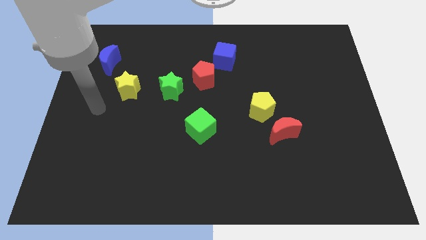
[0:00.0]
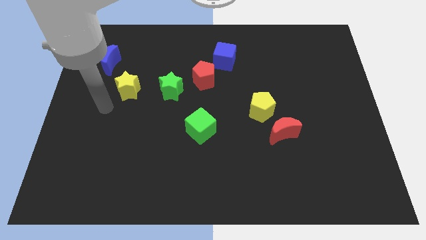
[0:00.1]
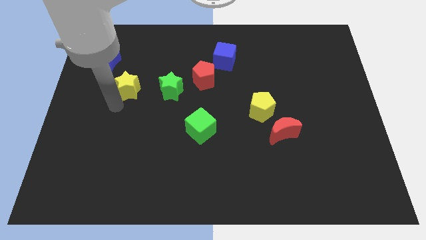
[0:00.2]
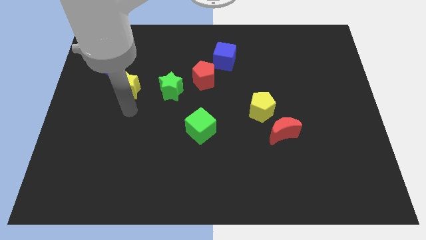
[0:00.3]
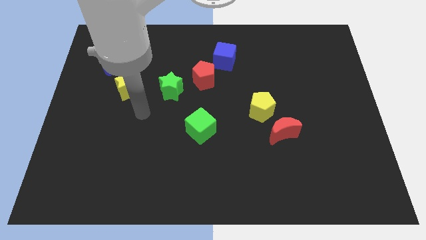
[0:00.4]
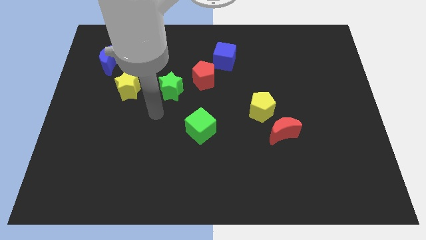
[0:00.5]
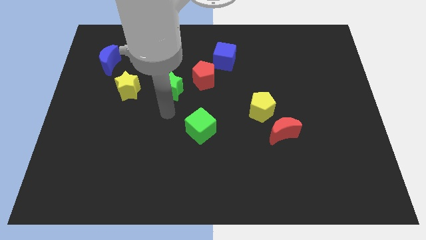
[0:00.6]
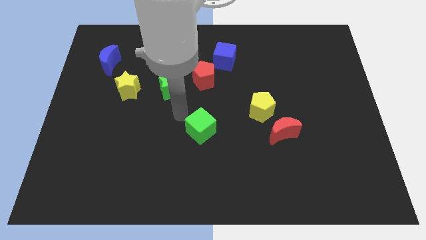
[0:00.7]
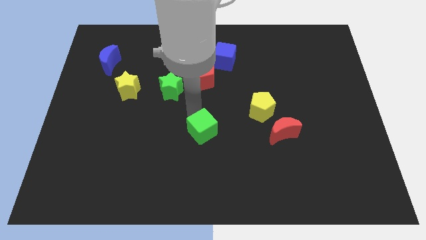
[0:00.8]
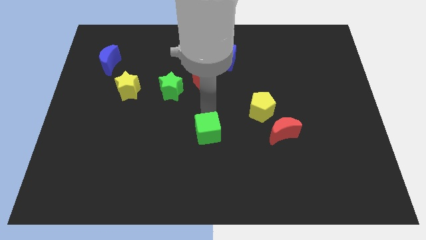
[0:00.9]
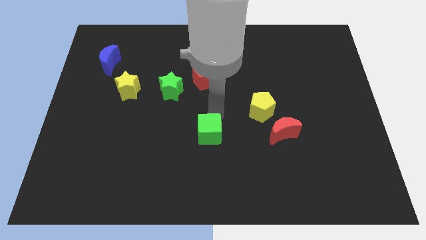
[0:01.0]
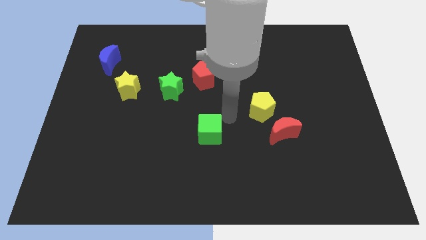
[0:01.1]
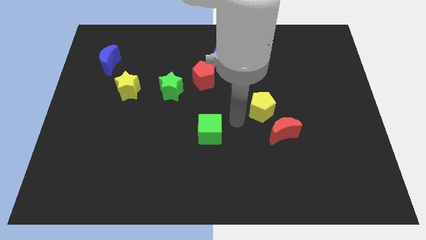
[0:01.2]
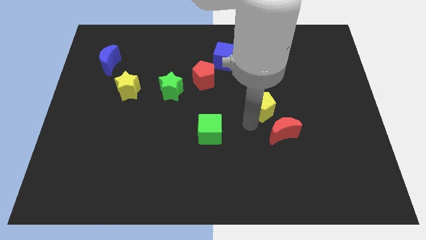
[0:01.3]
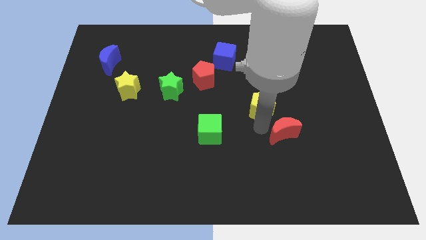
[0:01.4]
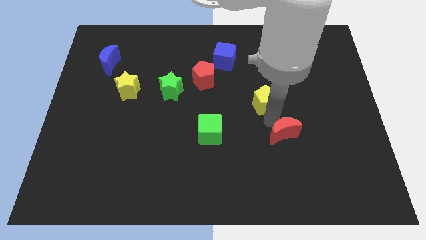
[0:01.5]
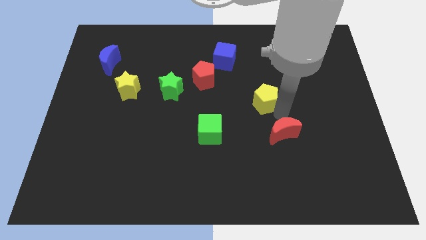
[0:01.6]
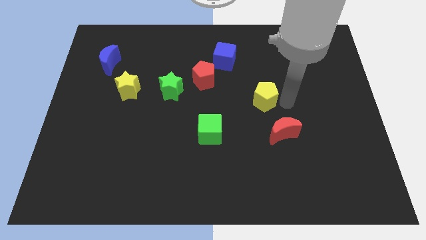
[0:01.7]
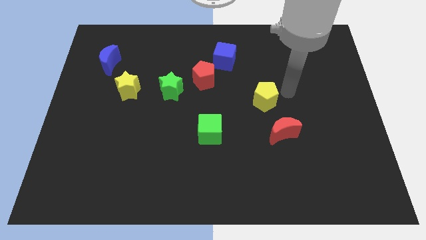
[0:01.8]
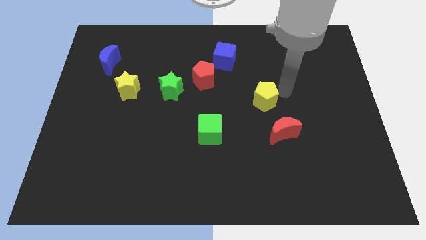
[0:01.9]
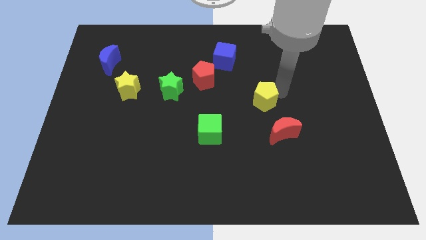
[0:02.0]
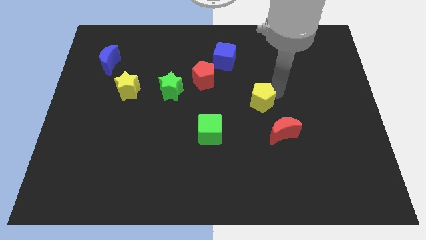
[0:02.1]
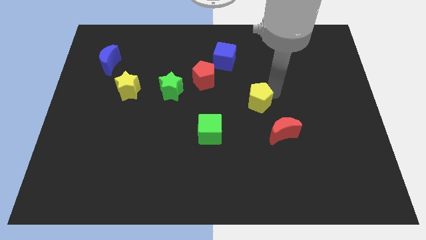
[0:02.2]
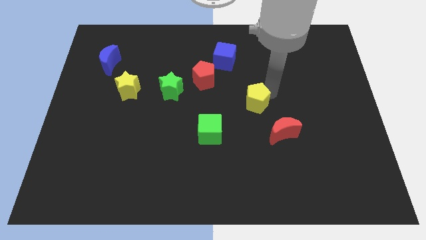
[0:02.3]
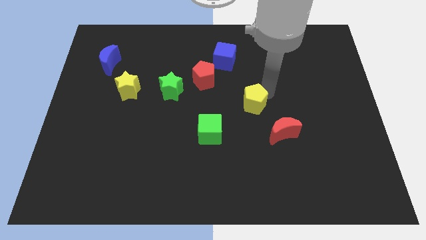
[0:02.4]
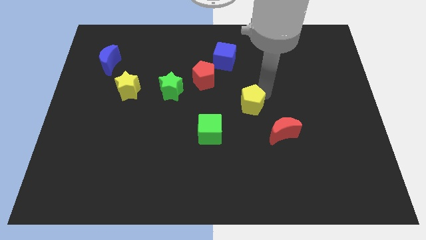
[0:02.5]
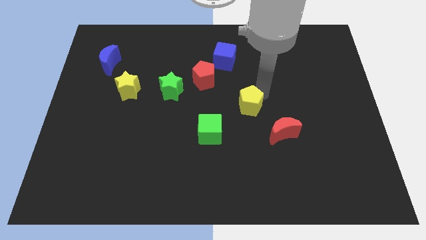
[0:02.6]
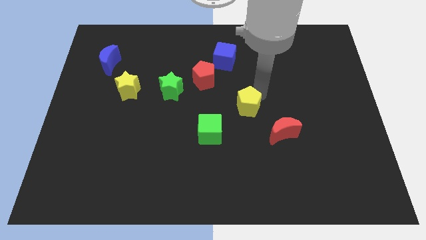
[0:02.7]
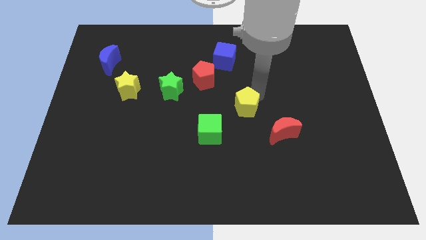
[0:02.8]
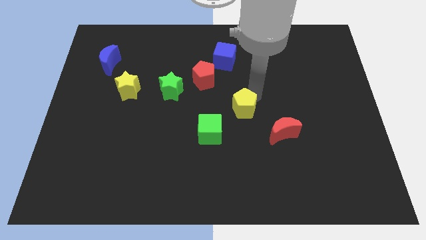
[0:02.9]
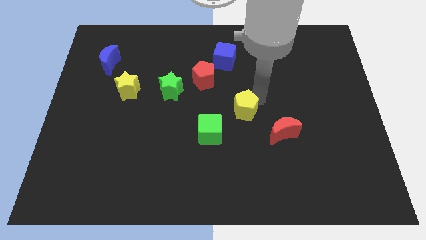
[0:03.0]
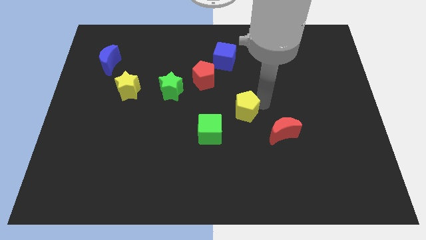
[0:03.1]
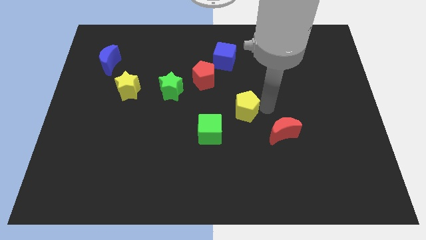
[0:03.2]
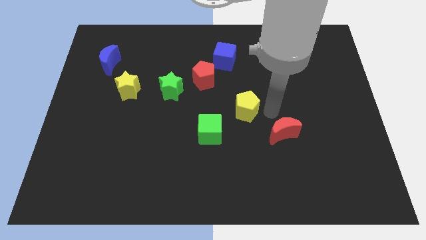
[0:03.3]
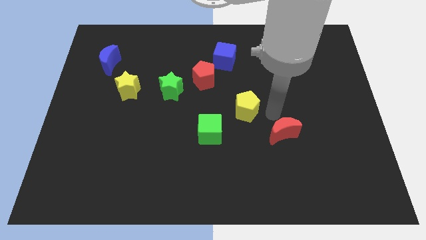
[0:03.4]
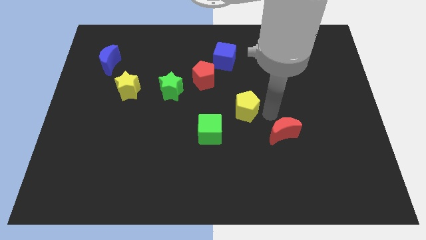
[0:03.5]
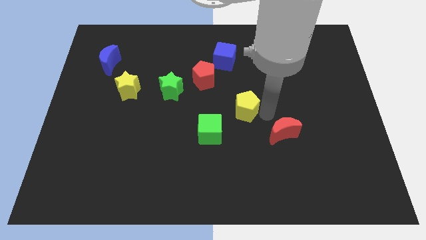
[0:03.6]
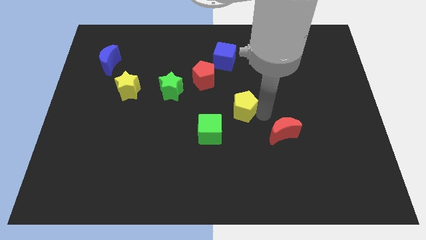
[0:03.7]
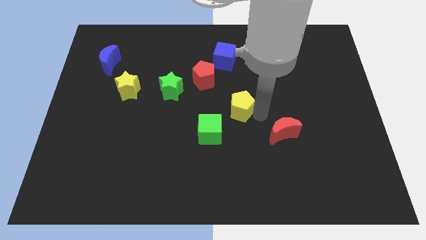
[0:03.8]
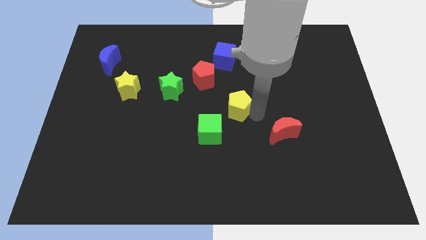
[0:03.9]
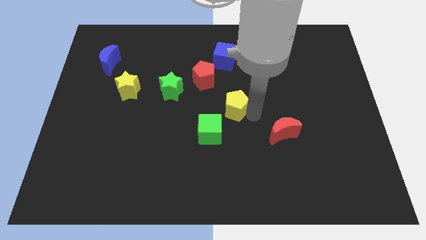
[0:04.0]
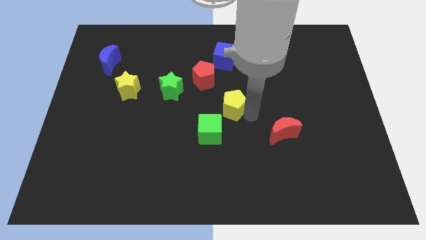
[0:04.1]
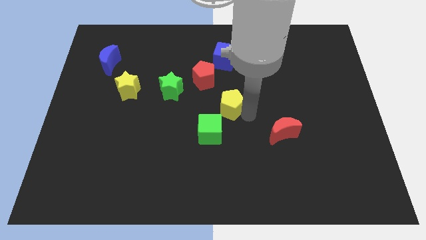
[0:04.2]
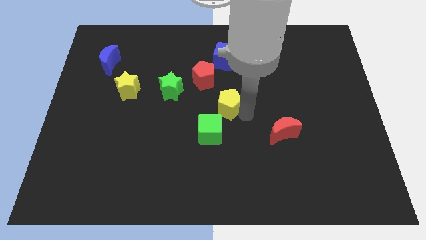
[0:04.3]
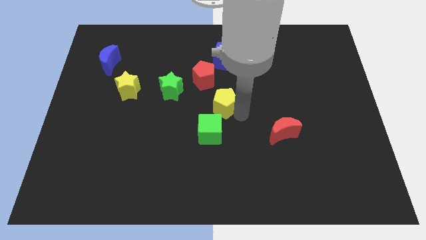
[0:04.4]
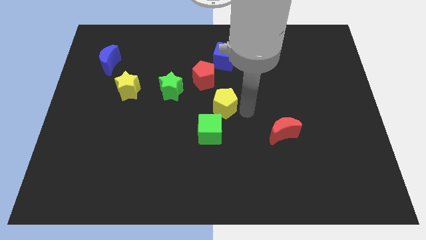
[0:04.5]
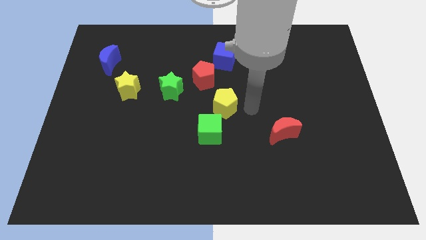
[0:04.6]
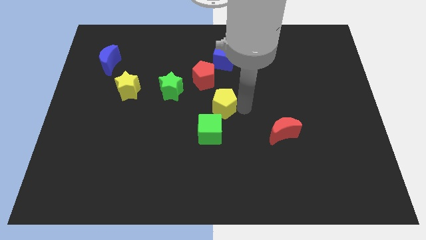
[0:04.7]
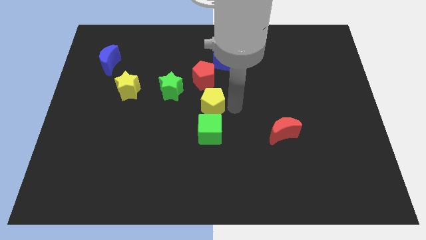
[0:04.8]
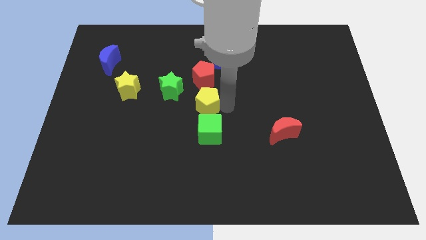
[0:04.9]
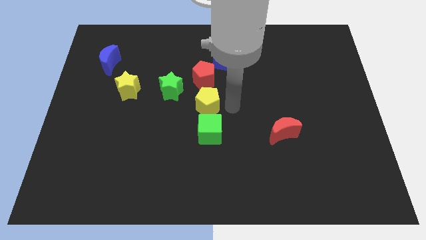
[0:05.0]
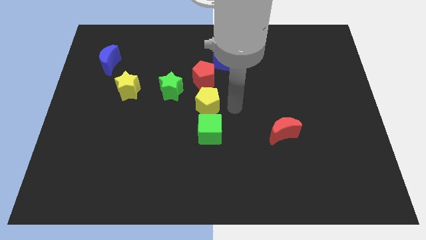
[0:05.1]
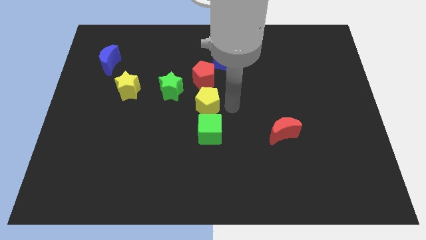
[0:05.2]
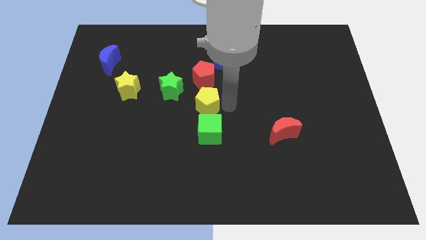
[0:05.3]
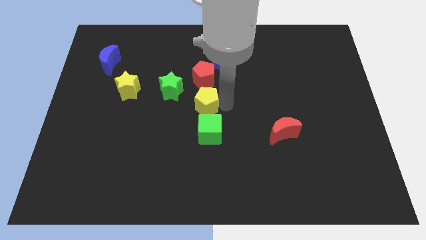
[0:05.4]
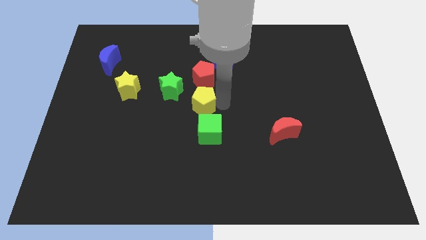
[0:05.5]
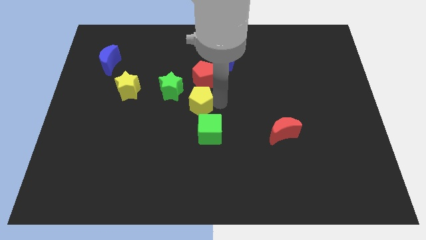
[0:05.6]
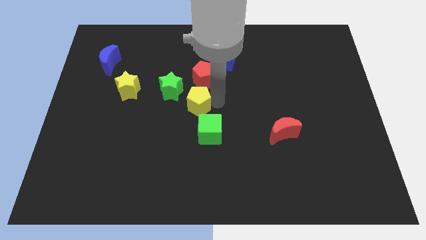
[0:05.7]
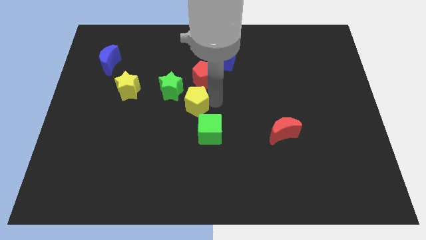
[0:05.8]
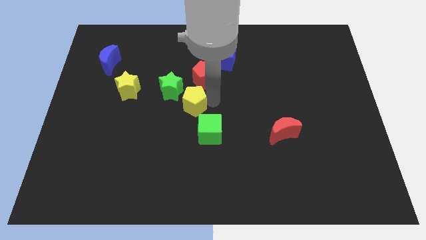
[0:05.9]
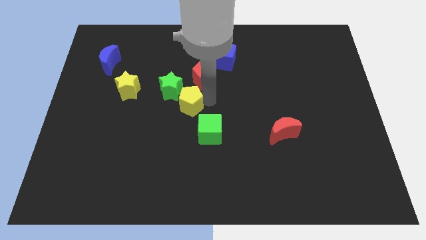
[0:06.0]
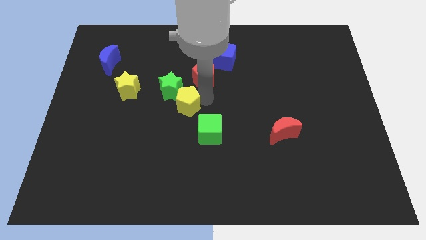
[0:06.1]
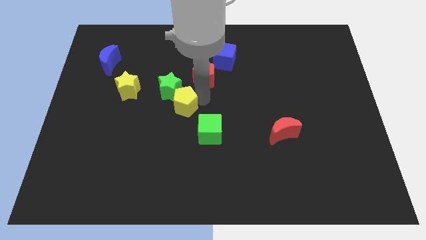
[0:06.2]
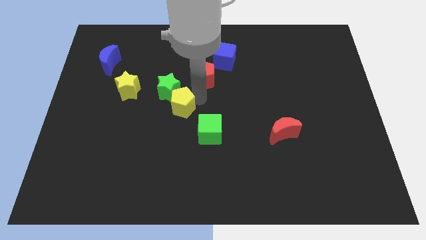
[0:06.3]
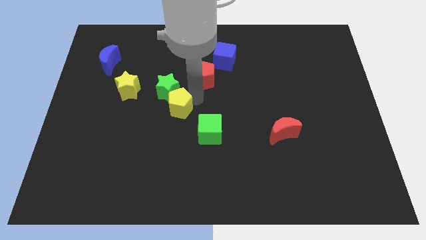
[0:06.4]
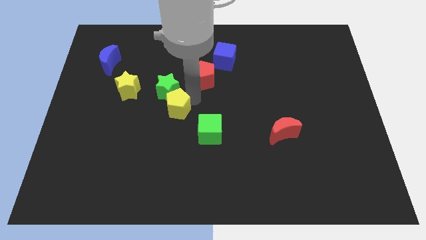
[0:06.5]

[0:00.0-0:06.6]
move the yellow pentagon left

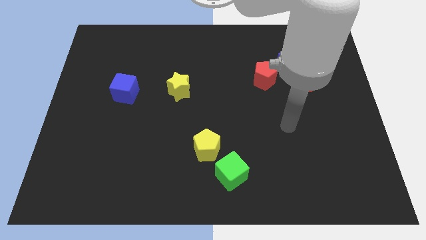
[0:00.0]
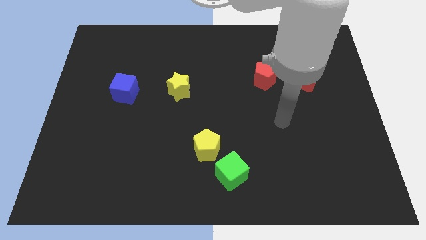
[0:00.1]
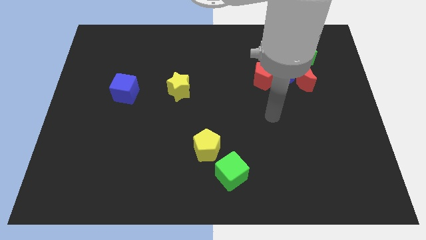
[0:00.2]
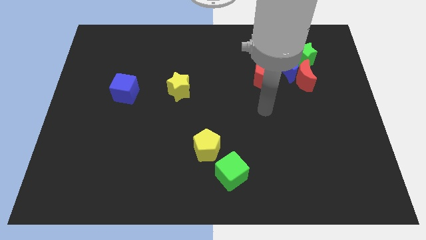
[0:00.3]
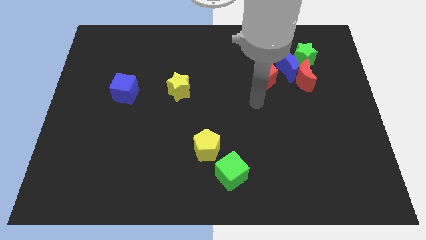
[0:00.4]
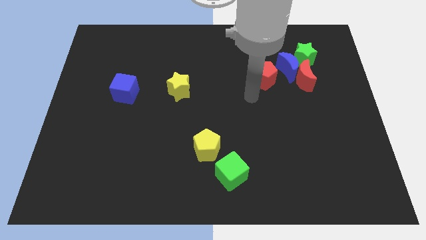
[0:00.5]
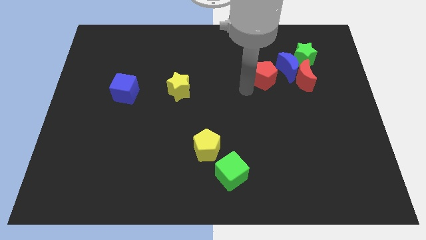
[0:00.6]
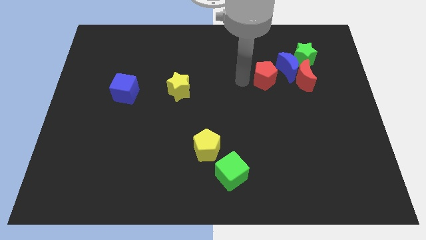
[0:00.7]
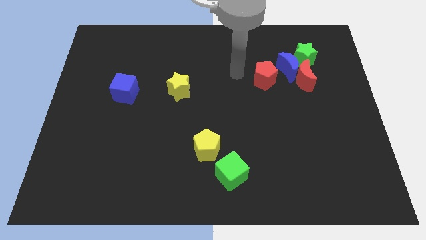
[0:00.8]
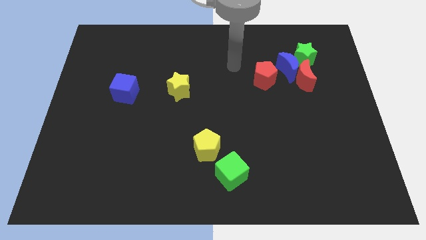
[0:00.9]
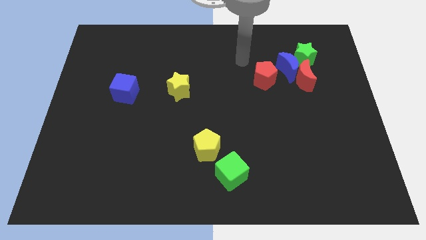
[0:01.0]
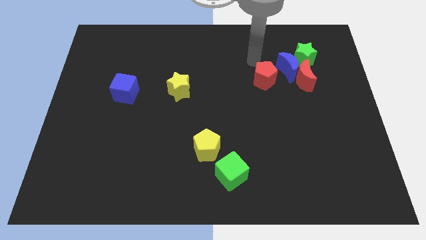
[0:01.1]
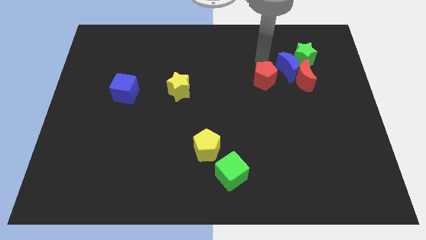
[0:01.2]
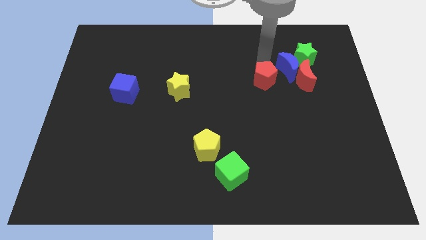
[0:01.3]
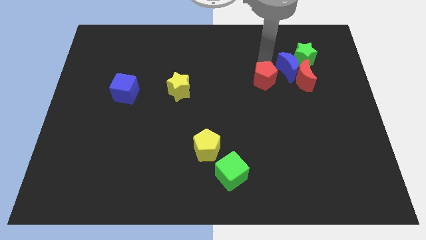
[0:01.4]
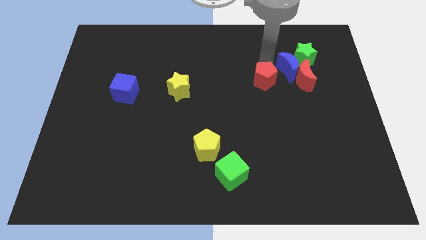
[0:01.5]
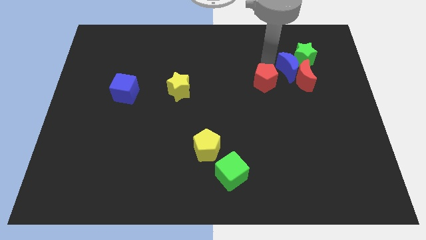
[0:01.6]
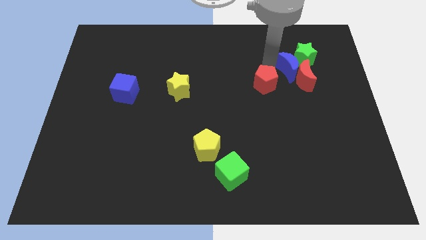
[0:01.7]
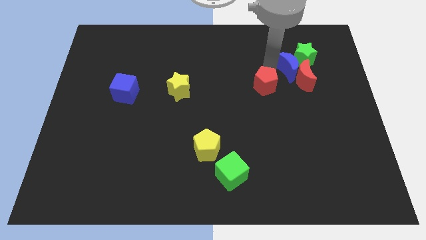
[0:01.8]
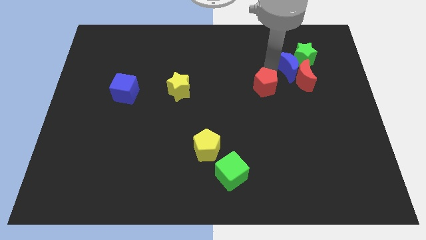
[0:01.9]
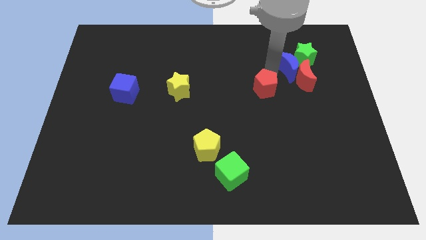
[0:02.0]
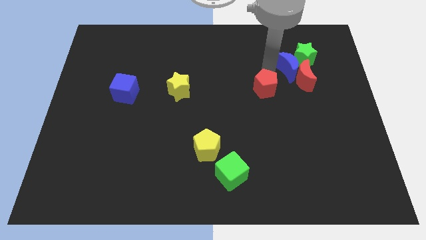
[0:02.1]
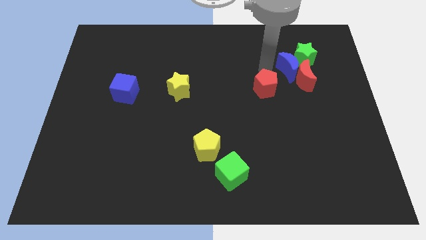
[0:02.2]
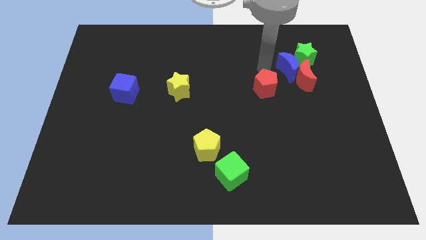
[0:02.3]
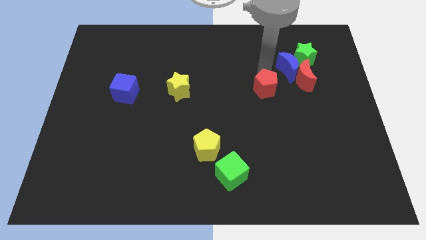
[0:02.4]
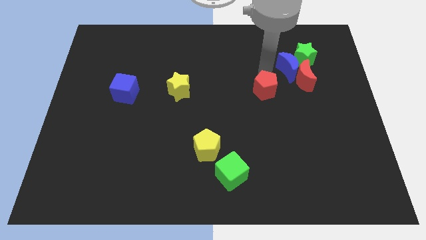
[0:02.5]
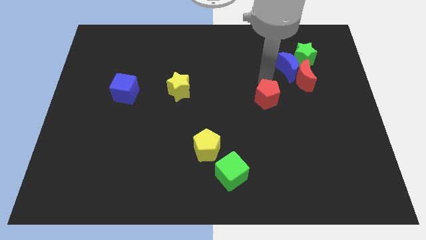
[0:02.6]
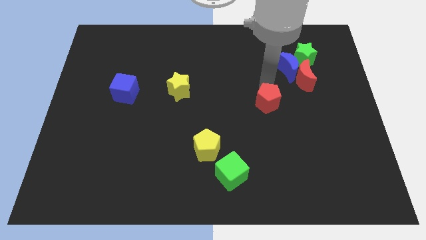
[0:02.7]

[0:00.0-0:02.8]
slide the red pentagon a little down
